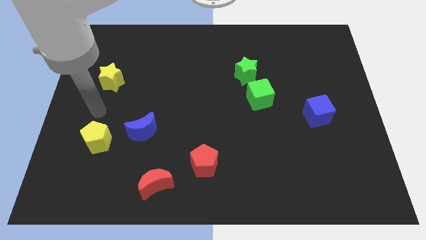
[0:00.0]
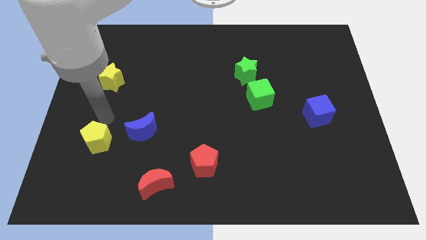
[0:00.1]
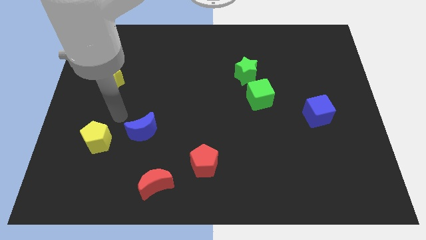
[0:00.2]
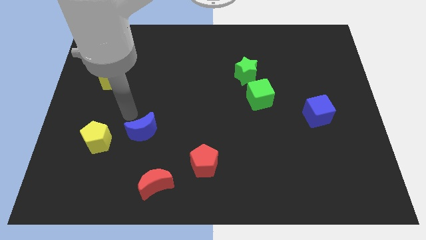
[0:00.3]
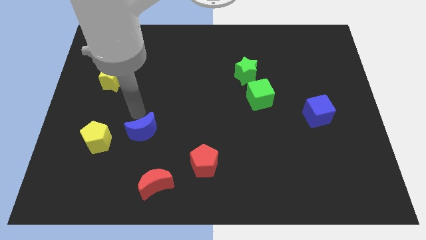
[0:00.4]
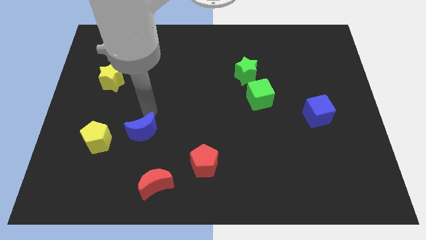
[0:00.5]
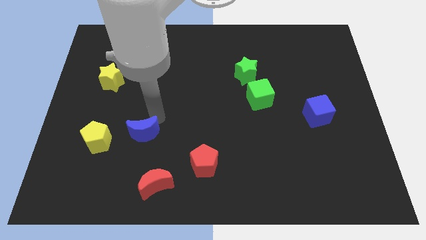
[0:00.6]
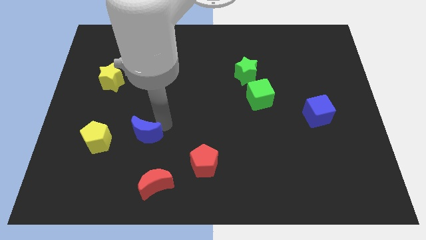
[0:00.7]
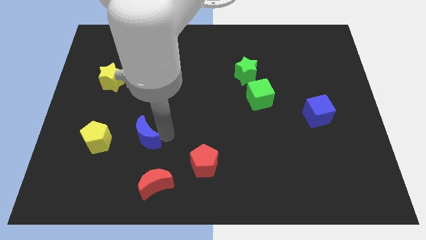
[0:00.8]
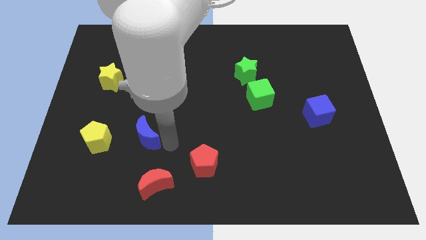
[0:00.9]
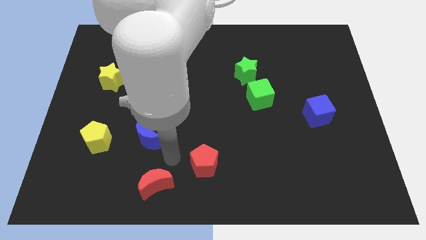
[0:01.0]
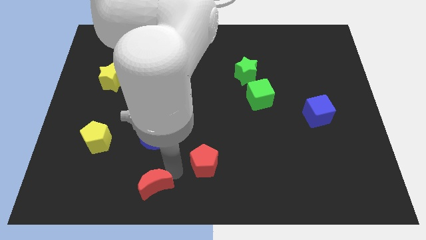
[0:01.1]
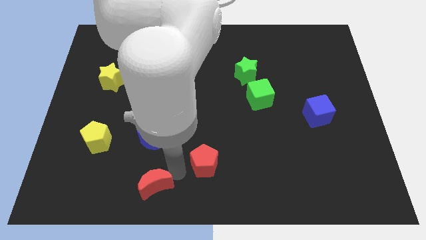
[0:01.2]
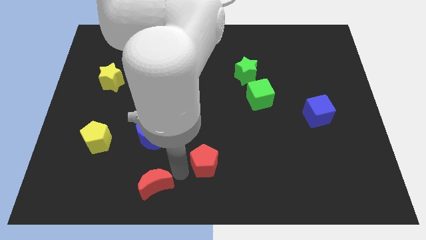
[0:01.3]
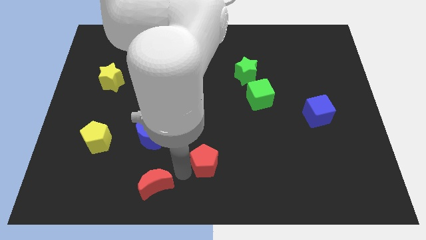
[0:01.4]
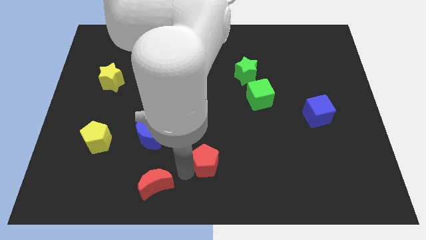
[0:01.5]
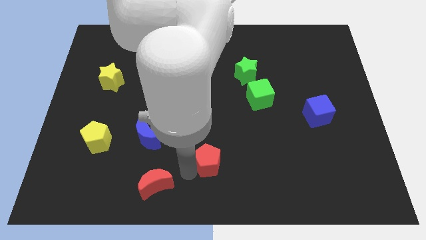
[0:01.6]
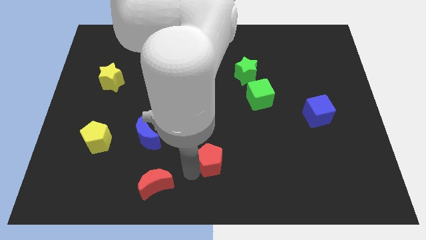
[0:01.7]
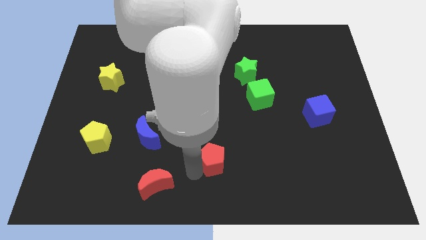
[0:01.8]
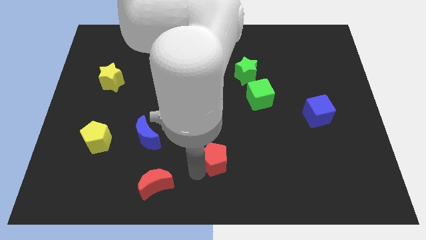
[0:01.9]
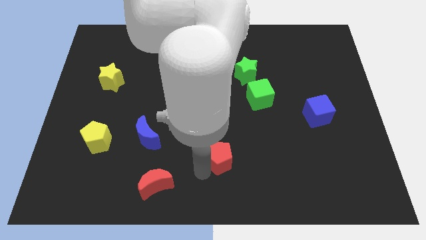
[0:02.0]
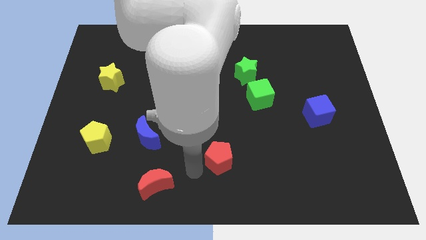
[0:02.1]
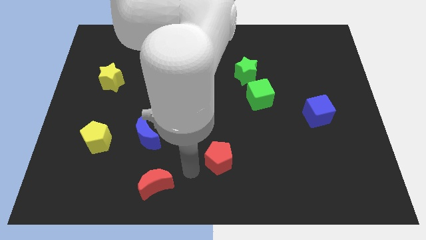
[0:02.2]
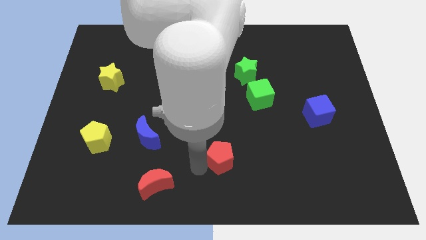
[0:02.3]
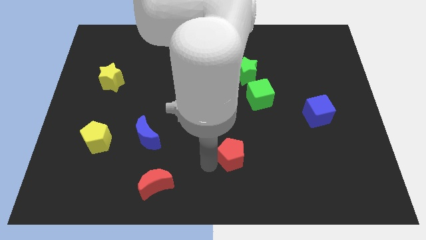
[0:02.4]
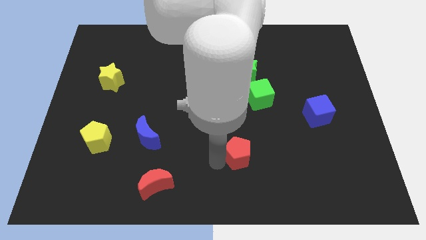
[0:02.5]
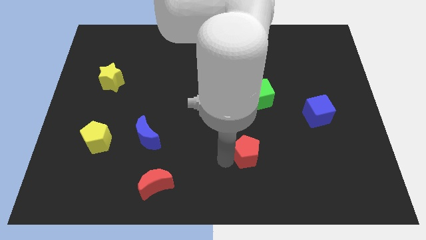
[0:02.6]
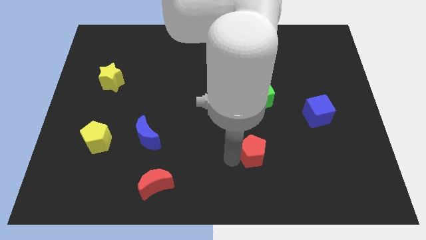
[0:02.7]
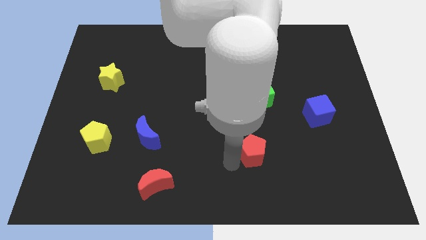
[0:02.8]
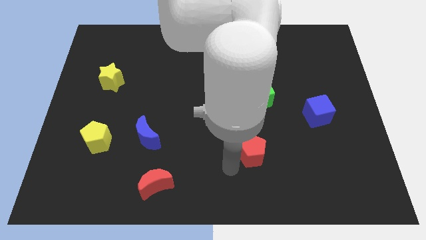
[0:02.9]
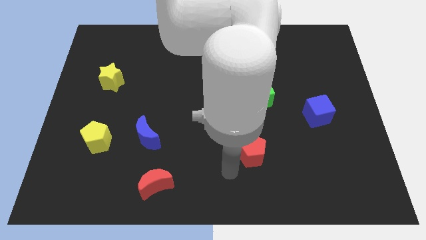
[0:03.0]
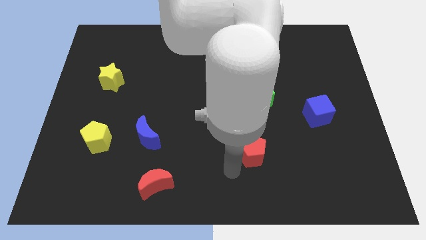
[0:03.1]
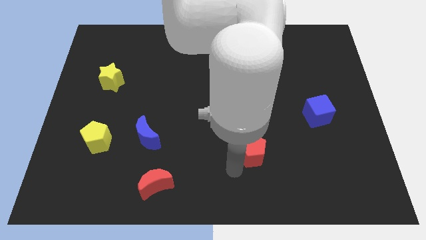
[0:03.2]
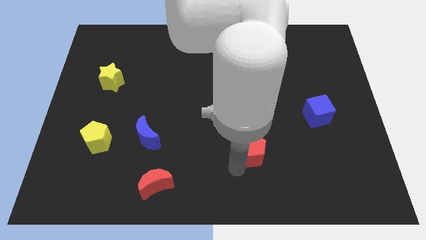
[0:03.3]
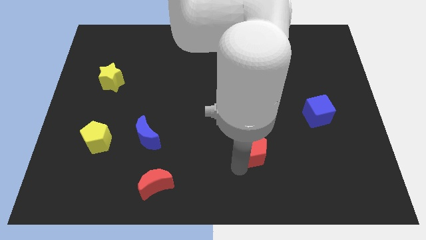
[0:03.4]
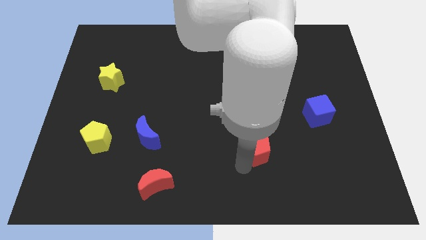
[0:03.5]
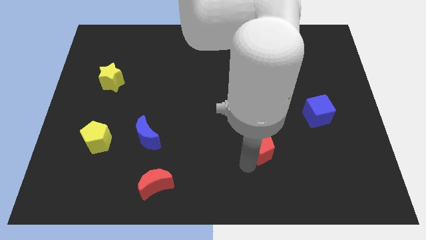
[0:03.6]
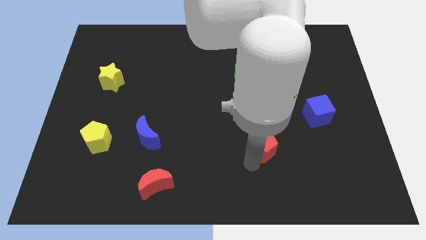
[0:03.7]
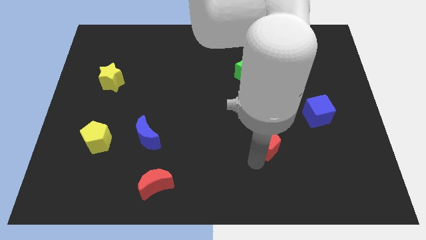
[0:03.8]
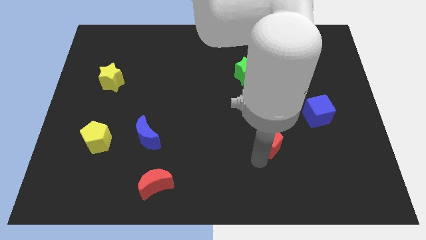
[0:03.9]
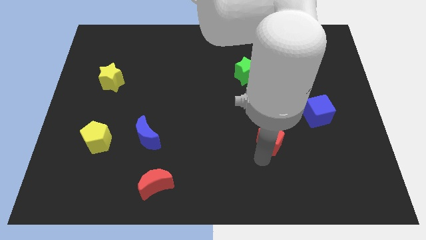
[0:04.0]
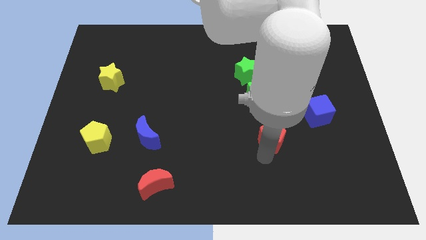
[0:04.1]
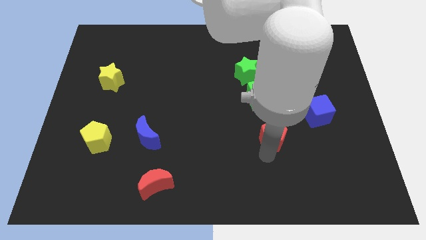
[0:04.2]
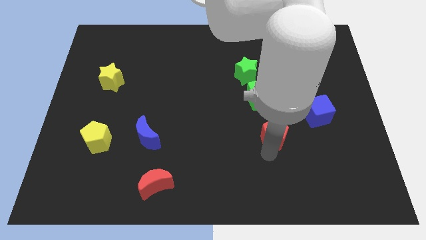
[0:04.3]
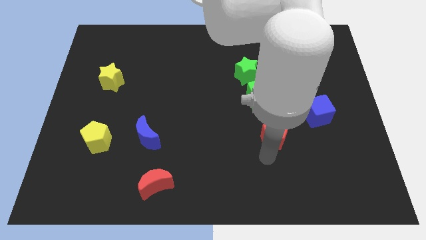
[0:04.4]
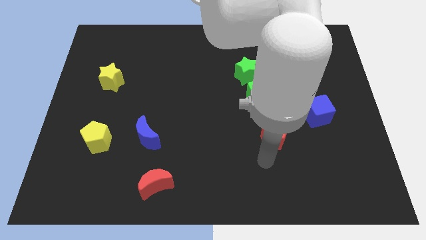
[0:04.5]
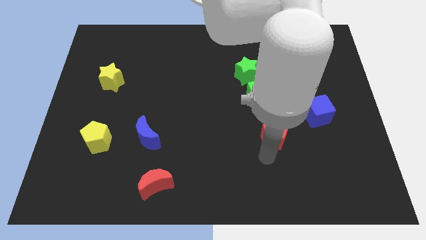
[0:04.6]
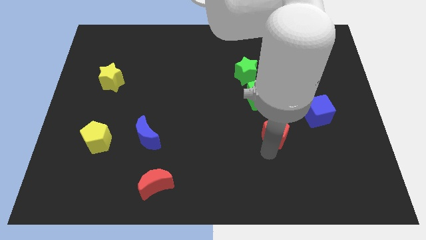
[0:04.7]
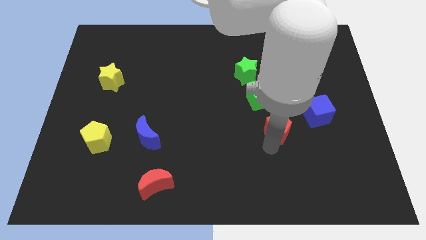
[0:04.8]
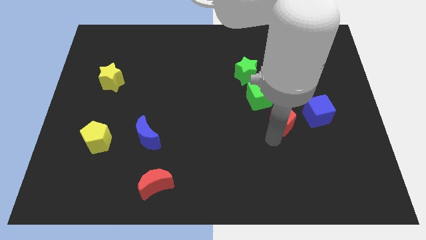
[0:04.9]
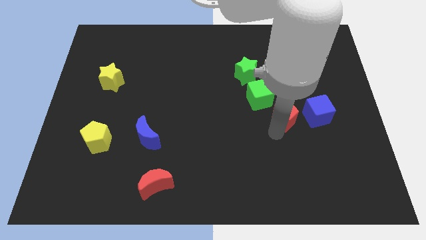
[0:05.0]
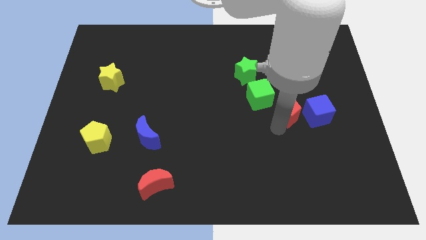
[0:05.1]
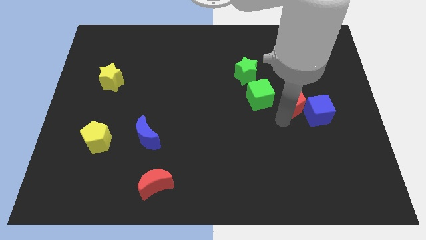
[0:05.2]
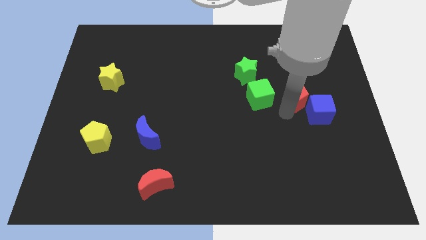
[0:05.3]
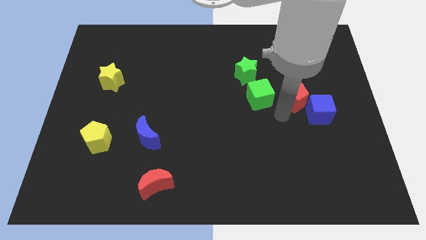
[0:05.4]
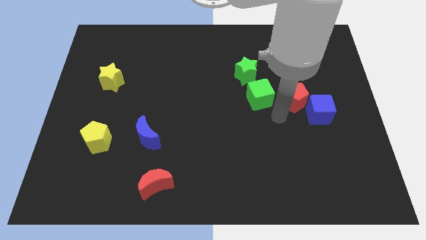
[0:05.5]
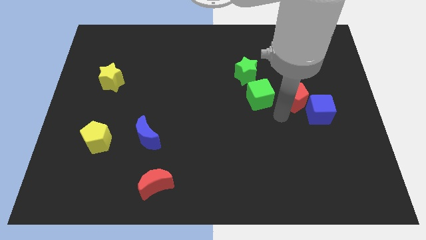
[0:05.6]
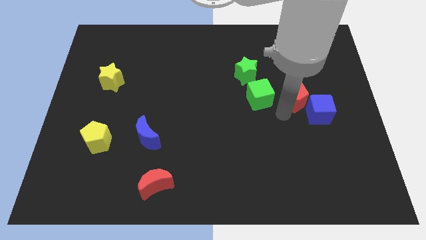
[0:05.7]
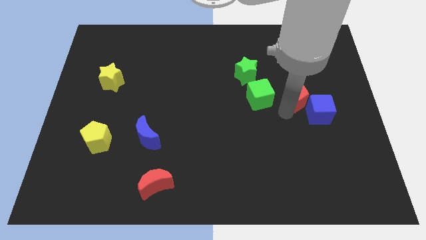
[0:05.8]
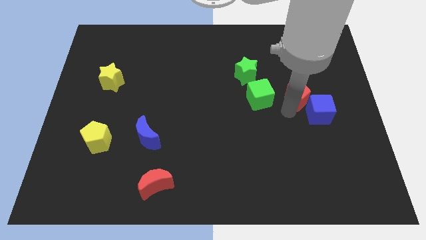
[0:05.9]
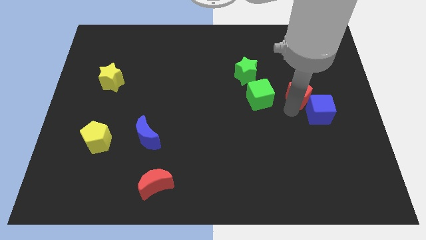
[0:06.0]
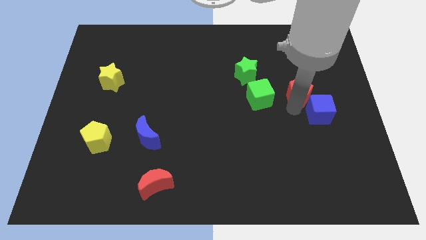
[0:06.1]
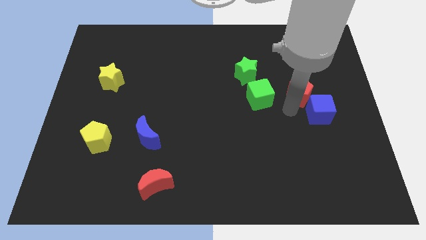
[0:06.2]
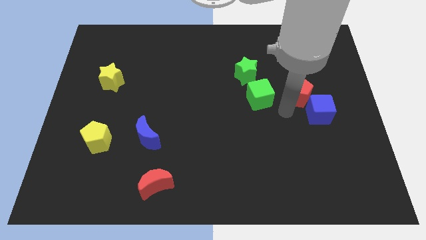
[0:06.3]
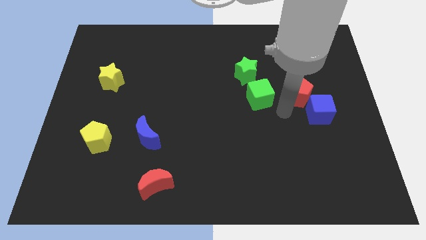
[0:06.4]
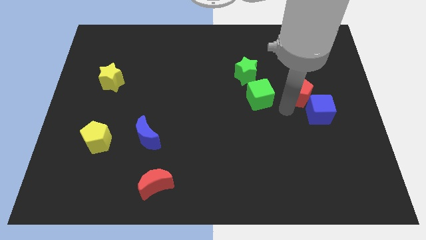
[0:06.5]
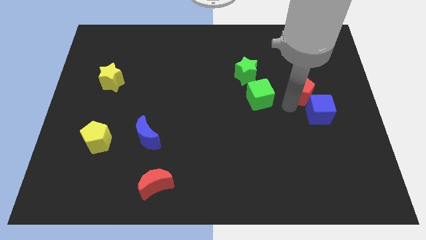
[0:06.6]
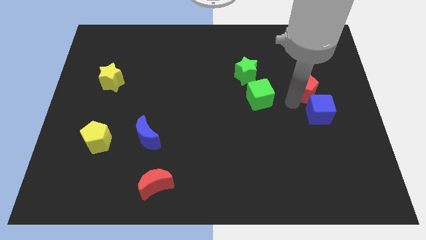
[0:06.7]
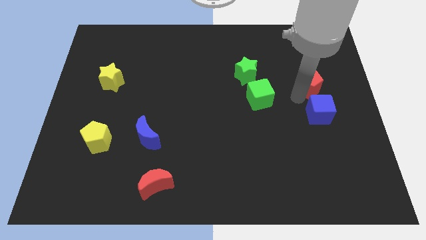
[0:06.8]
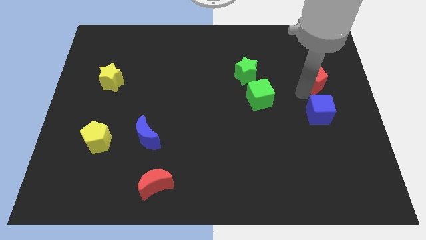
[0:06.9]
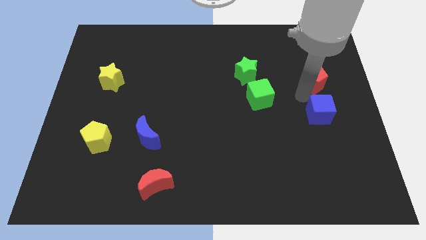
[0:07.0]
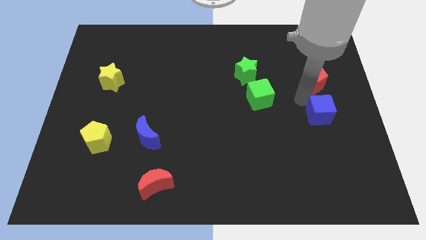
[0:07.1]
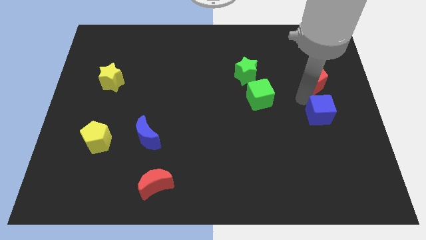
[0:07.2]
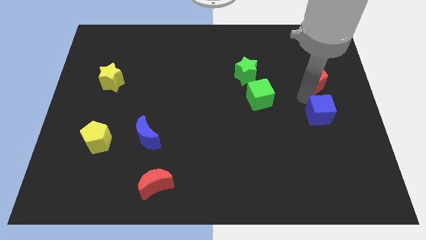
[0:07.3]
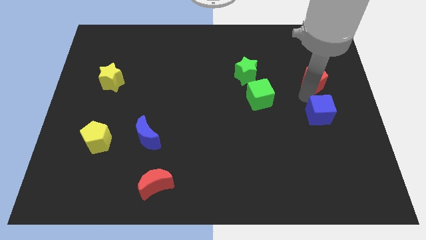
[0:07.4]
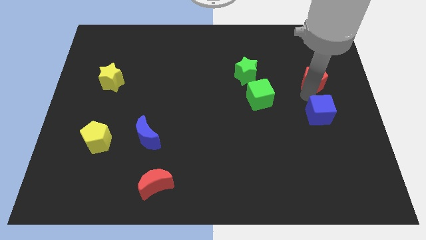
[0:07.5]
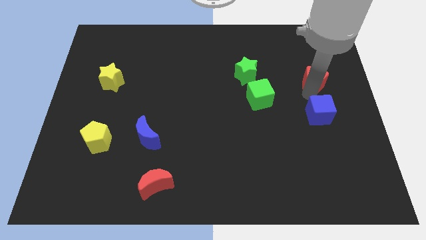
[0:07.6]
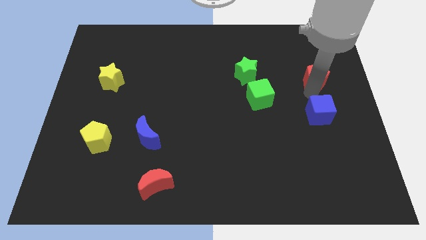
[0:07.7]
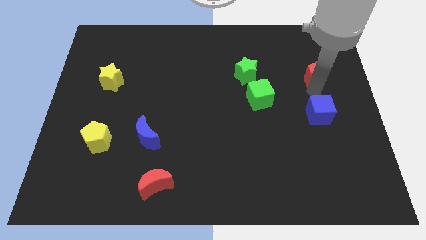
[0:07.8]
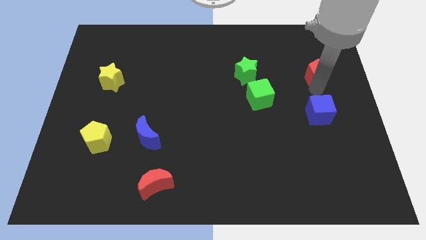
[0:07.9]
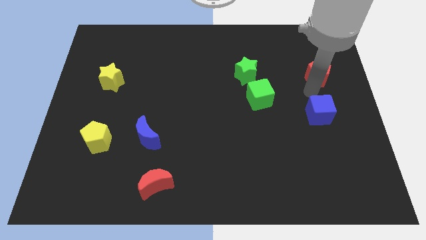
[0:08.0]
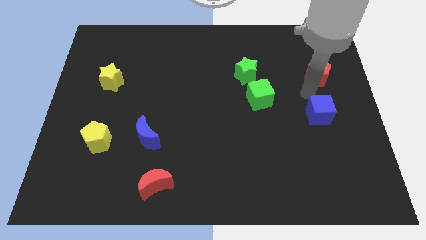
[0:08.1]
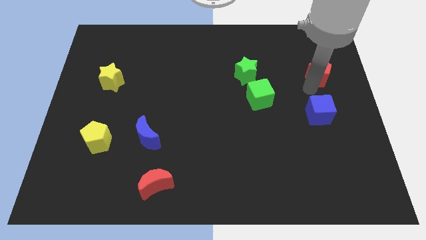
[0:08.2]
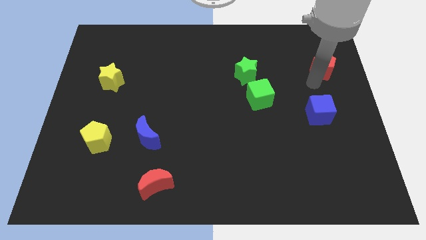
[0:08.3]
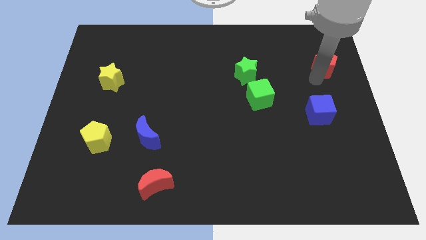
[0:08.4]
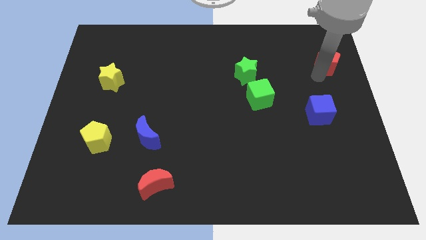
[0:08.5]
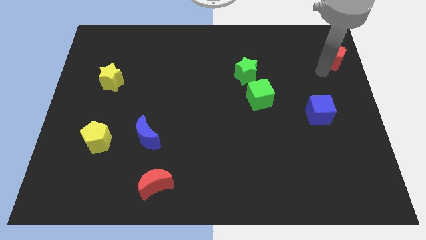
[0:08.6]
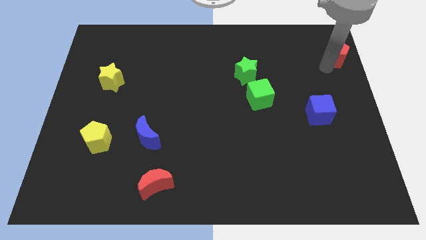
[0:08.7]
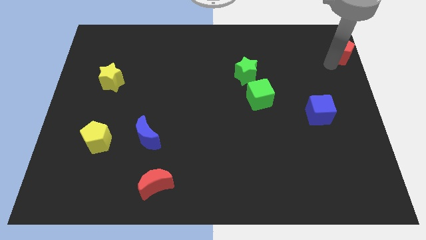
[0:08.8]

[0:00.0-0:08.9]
move the red pentagon to the upper right corner
